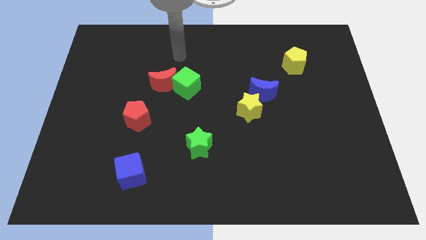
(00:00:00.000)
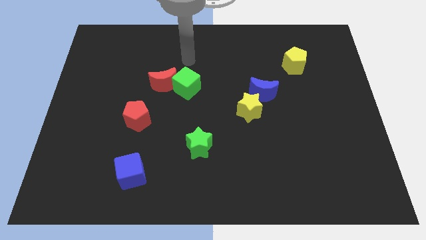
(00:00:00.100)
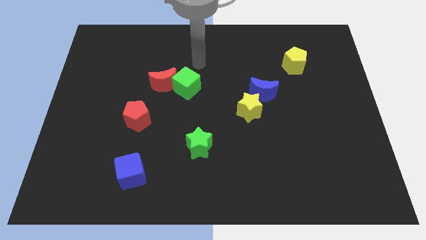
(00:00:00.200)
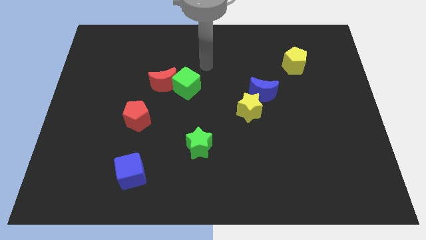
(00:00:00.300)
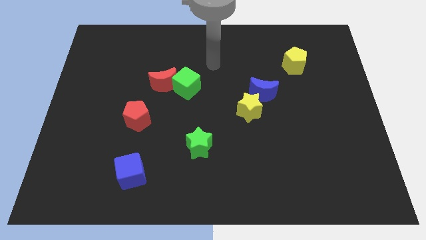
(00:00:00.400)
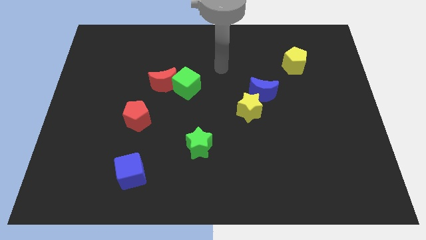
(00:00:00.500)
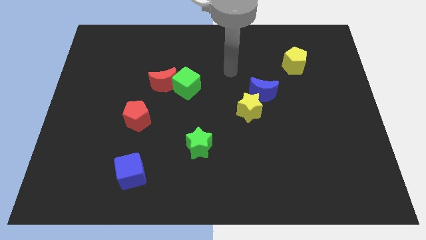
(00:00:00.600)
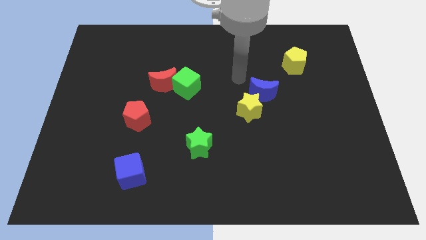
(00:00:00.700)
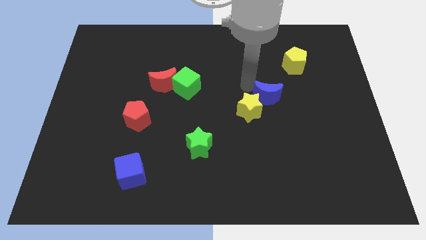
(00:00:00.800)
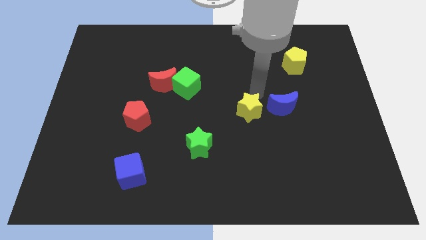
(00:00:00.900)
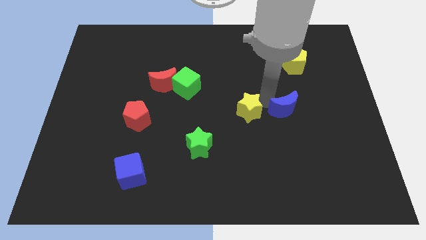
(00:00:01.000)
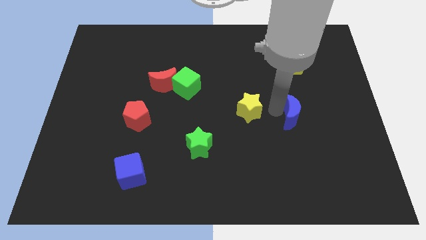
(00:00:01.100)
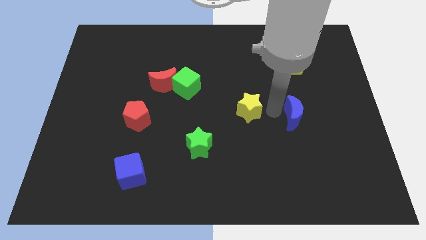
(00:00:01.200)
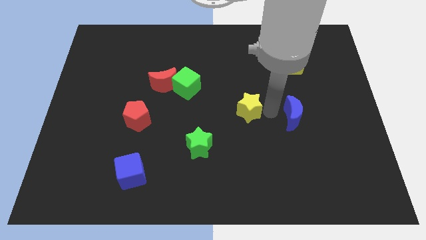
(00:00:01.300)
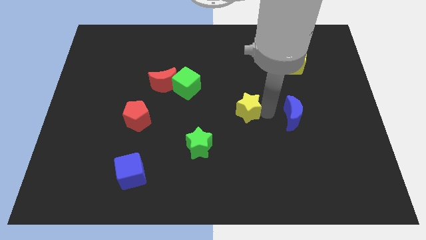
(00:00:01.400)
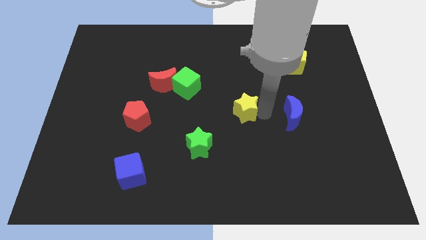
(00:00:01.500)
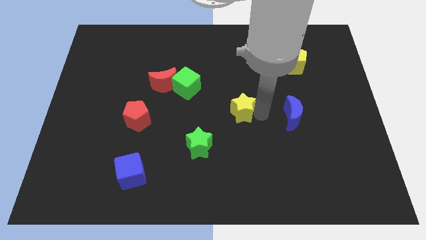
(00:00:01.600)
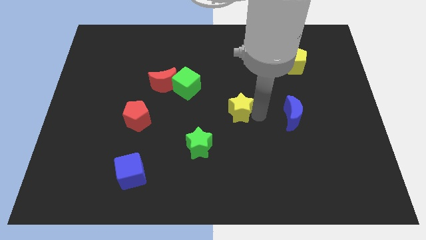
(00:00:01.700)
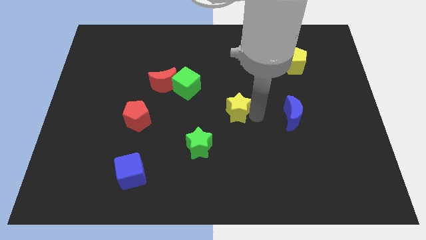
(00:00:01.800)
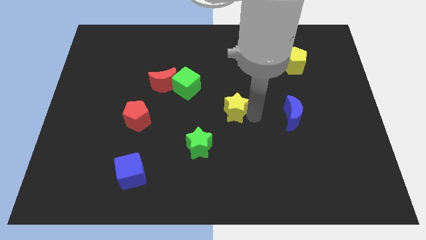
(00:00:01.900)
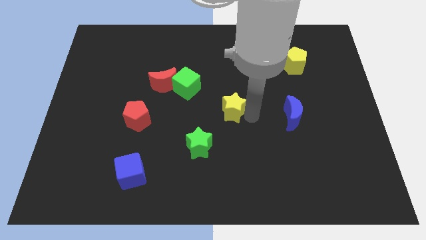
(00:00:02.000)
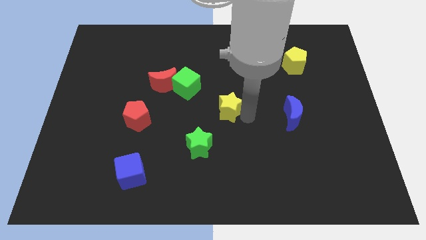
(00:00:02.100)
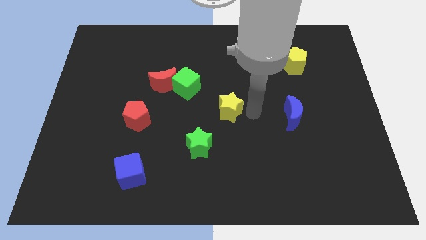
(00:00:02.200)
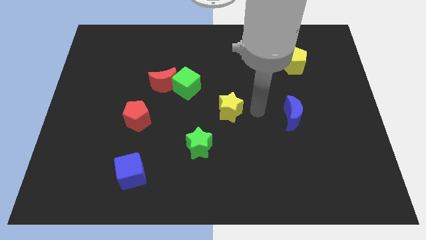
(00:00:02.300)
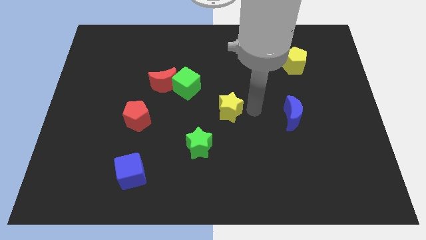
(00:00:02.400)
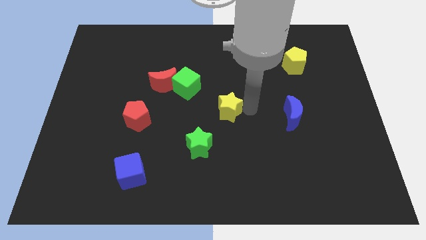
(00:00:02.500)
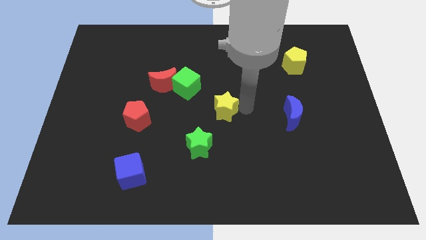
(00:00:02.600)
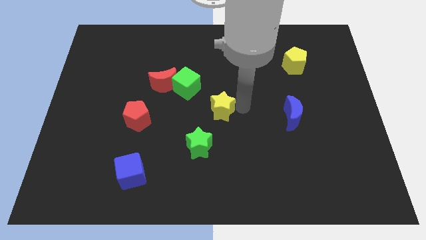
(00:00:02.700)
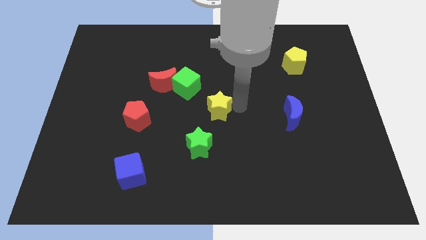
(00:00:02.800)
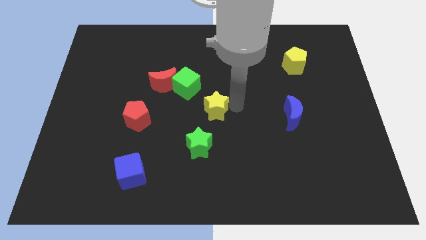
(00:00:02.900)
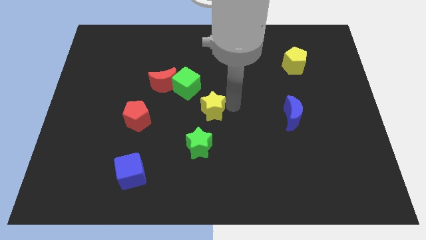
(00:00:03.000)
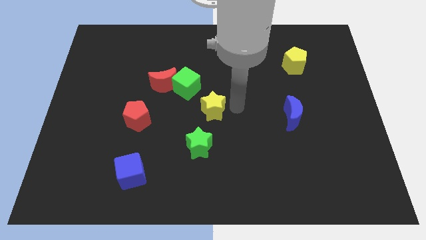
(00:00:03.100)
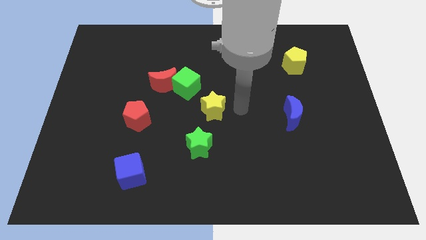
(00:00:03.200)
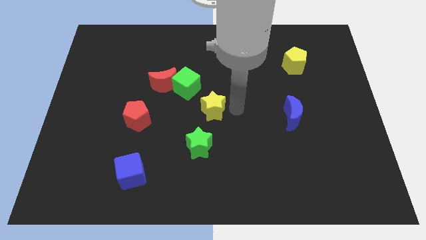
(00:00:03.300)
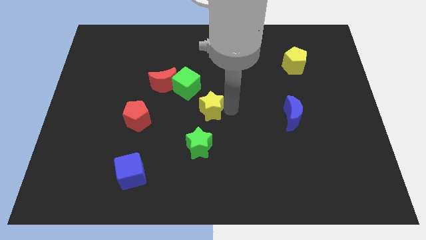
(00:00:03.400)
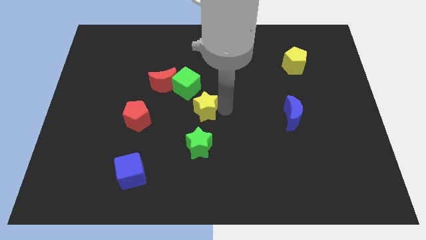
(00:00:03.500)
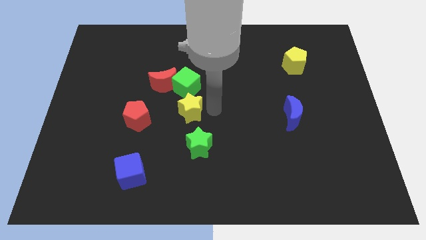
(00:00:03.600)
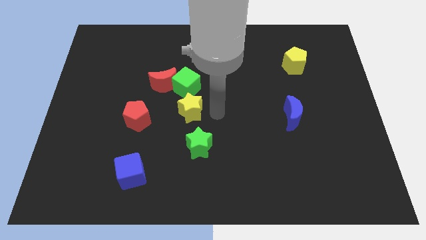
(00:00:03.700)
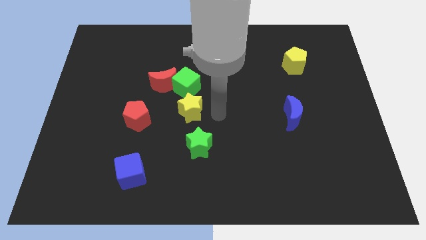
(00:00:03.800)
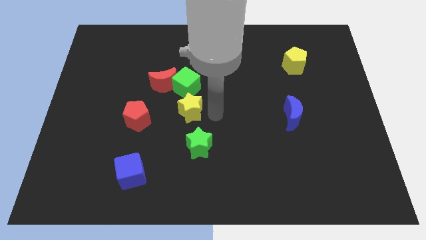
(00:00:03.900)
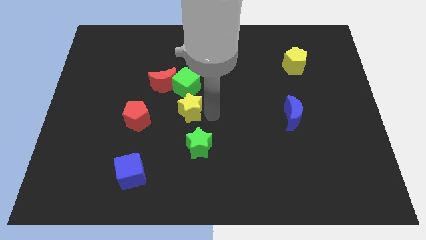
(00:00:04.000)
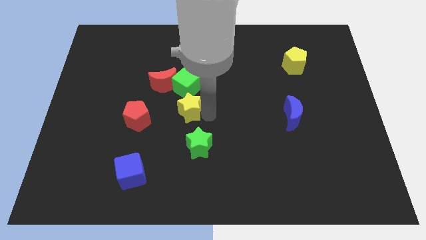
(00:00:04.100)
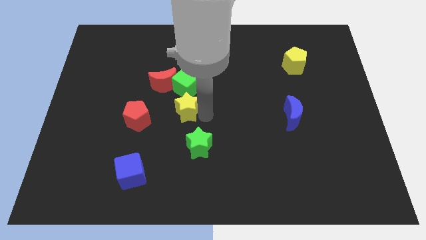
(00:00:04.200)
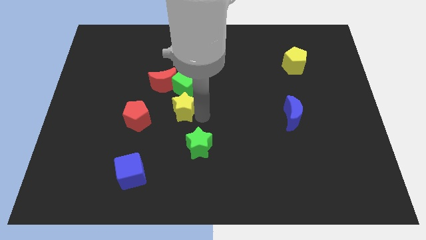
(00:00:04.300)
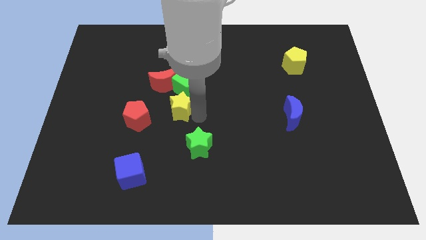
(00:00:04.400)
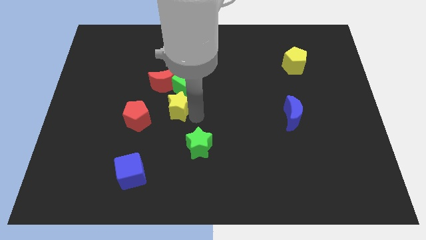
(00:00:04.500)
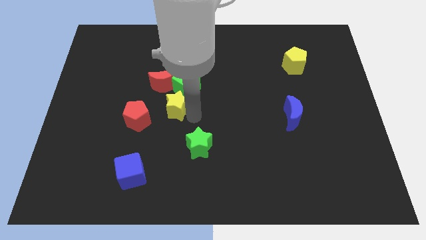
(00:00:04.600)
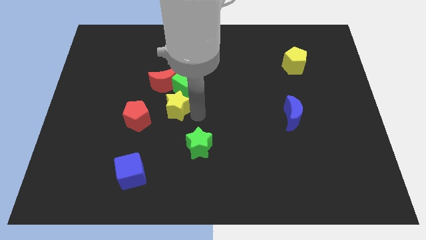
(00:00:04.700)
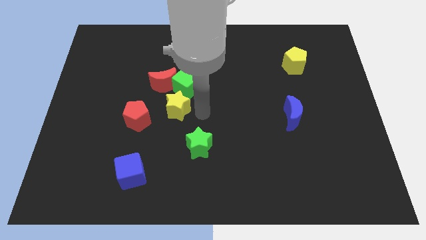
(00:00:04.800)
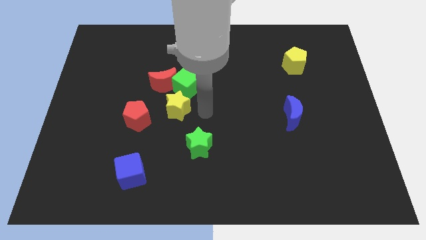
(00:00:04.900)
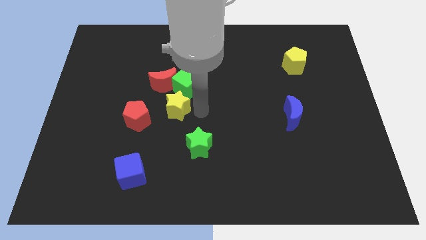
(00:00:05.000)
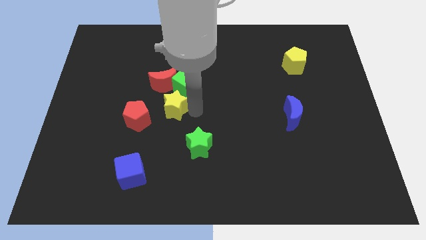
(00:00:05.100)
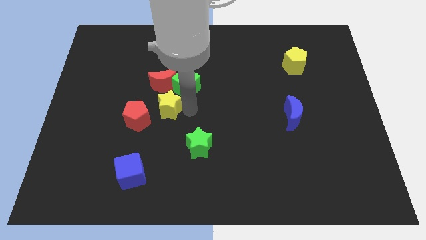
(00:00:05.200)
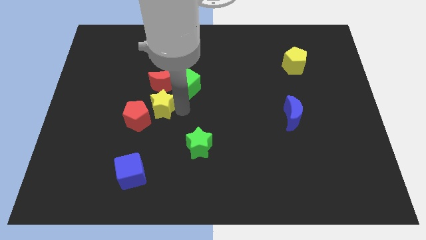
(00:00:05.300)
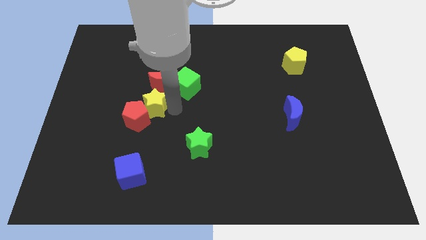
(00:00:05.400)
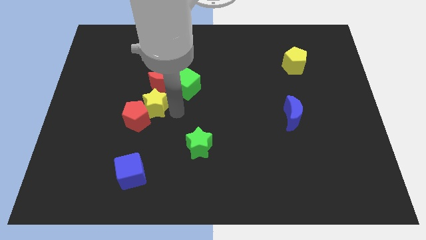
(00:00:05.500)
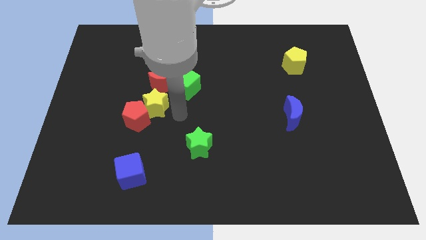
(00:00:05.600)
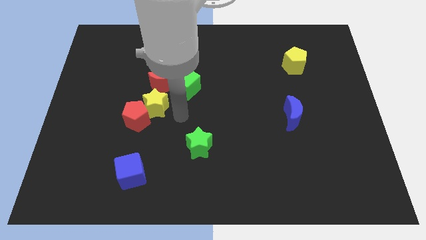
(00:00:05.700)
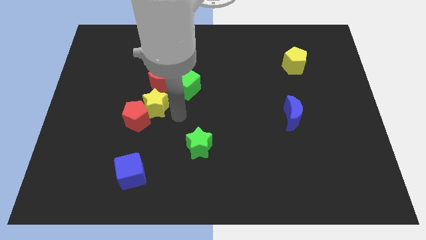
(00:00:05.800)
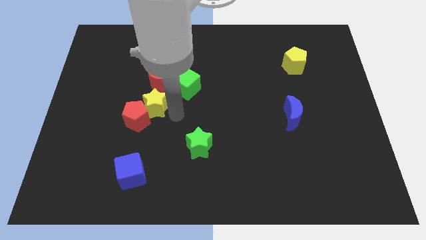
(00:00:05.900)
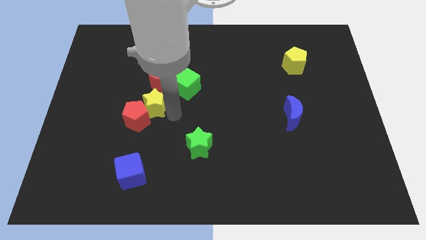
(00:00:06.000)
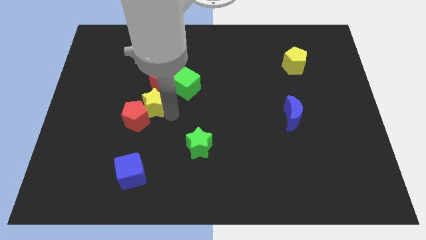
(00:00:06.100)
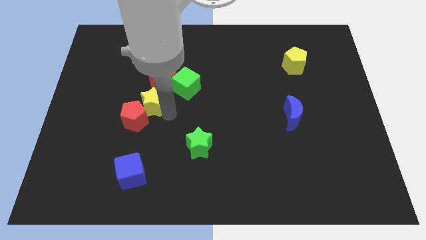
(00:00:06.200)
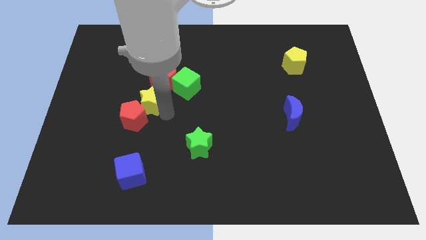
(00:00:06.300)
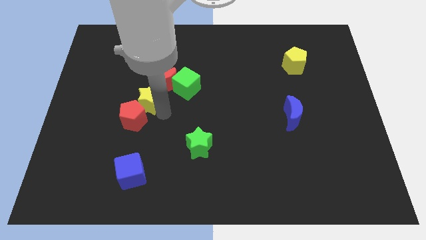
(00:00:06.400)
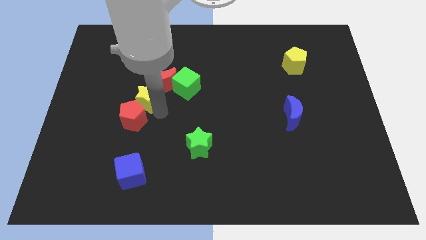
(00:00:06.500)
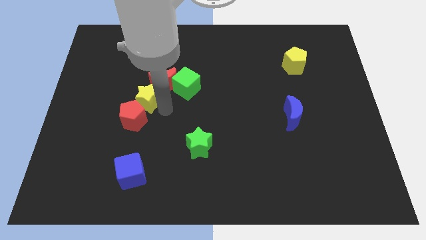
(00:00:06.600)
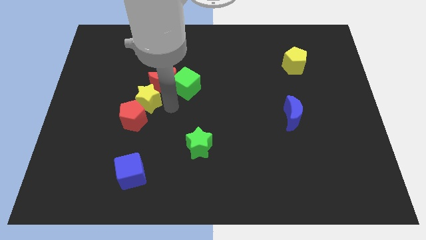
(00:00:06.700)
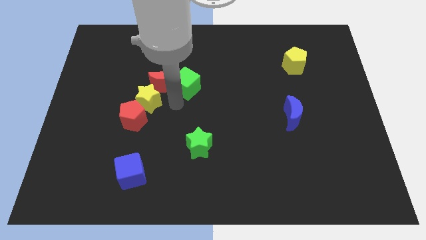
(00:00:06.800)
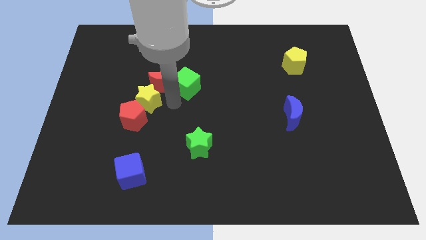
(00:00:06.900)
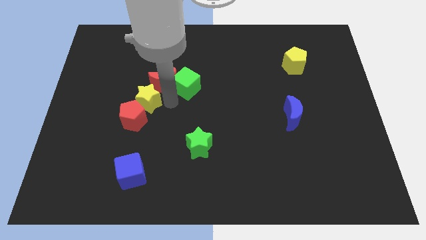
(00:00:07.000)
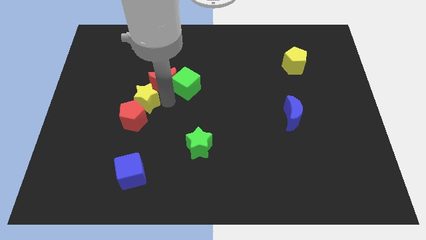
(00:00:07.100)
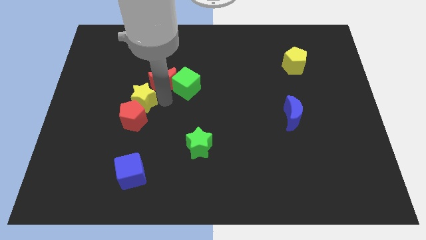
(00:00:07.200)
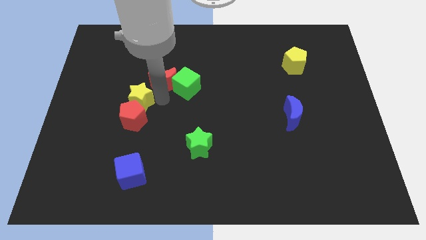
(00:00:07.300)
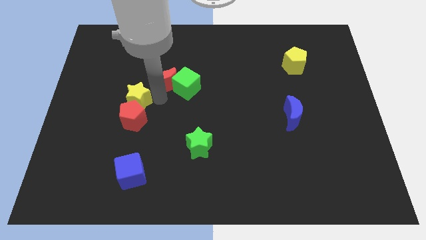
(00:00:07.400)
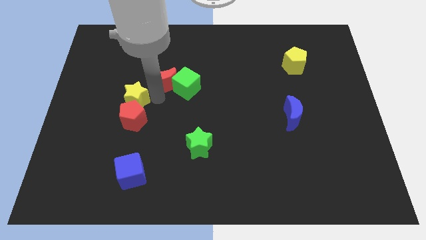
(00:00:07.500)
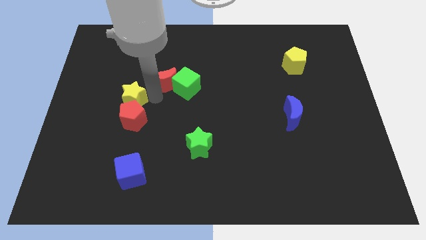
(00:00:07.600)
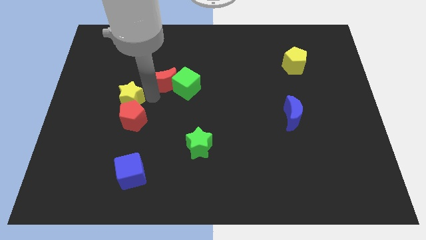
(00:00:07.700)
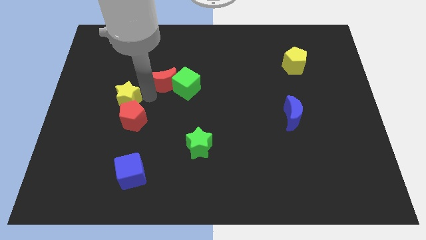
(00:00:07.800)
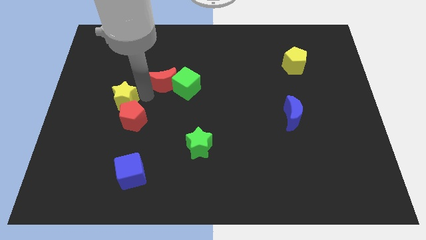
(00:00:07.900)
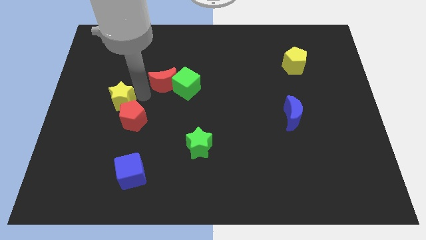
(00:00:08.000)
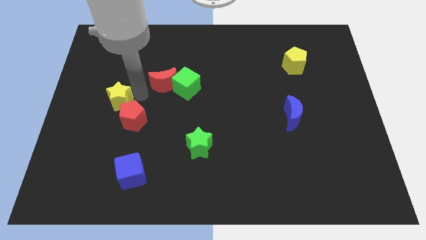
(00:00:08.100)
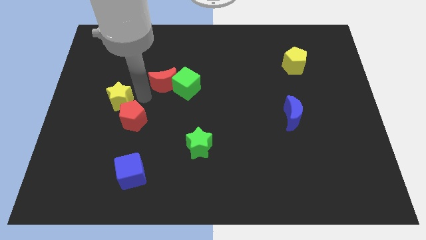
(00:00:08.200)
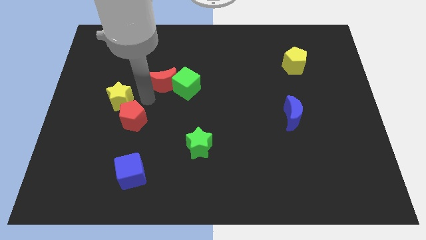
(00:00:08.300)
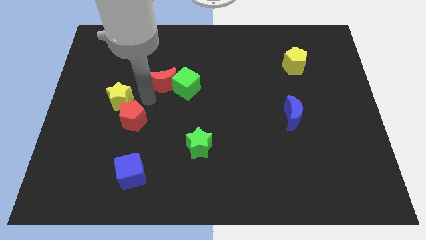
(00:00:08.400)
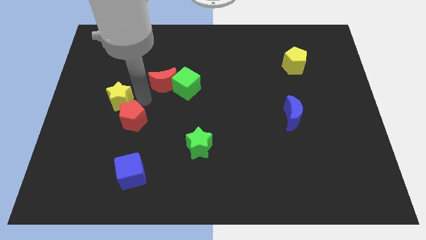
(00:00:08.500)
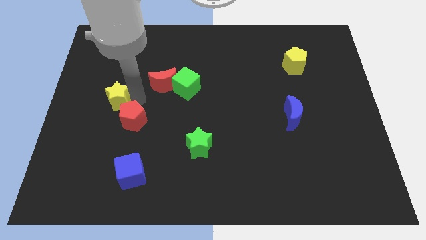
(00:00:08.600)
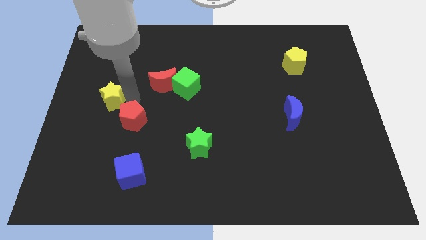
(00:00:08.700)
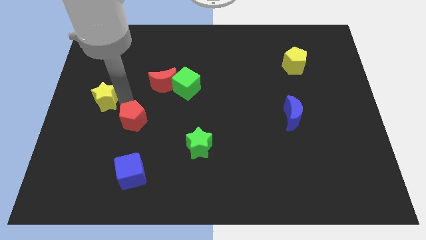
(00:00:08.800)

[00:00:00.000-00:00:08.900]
push the yellow star to the left side
